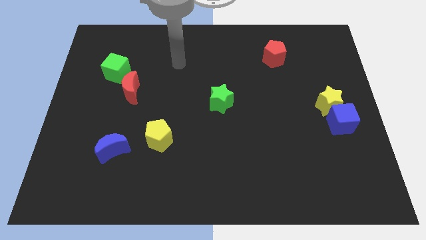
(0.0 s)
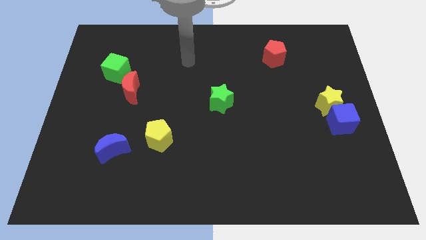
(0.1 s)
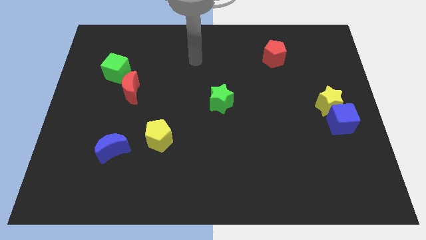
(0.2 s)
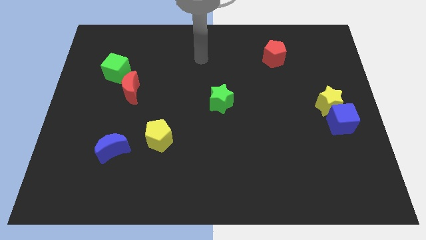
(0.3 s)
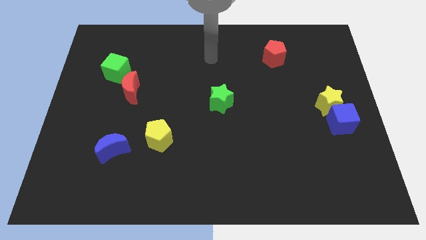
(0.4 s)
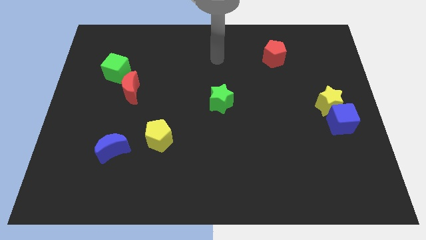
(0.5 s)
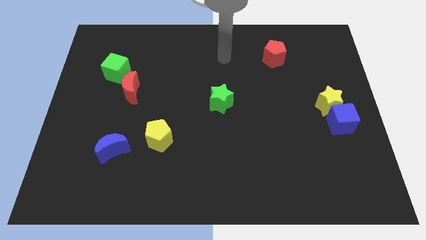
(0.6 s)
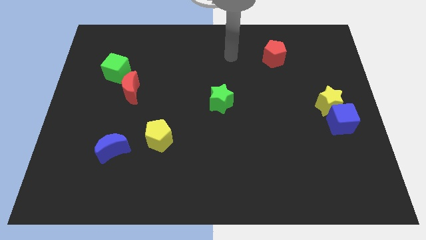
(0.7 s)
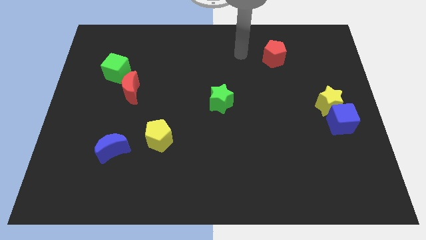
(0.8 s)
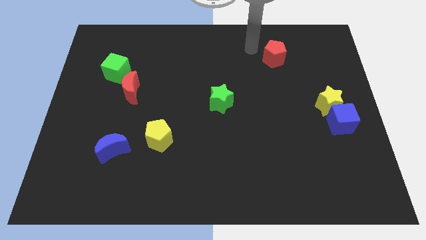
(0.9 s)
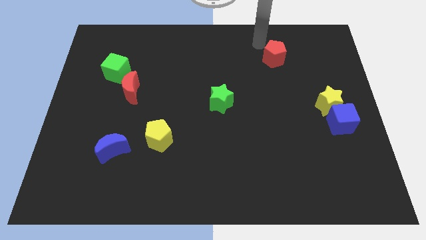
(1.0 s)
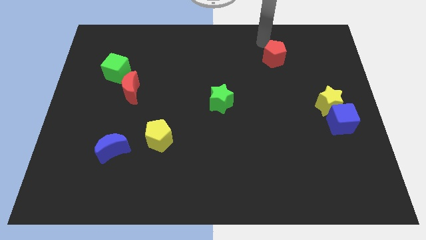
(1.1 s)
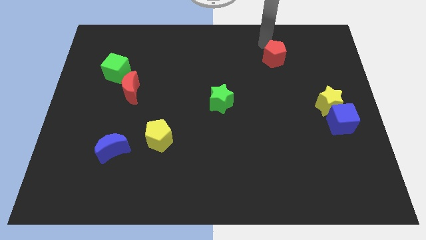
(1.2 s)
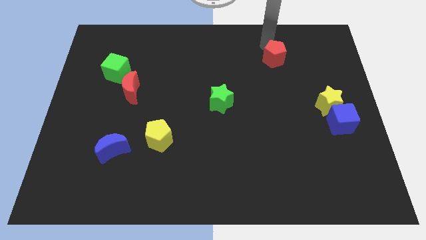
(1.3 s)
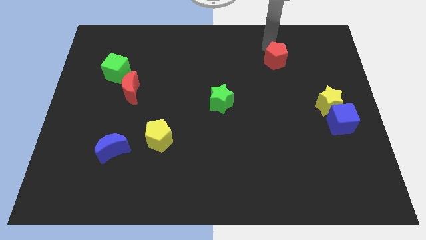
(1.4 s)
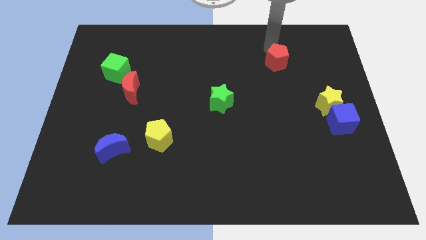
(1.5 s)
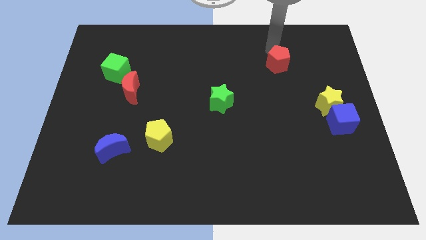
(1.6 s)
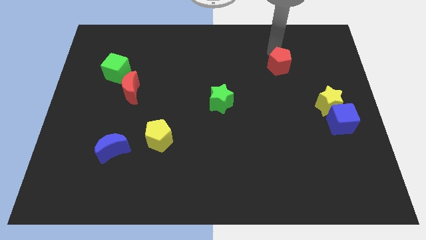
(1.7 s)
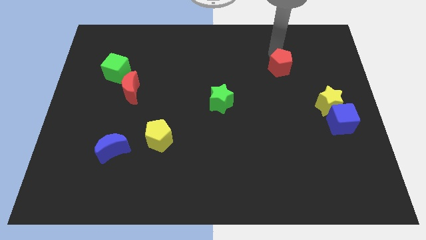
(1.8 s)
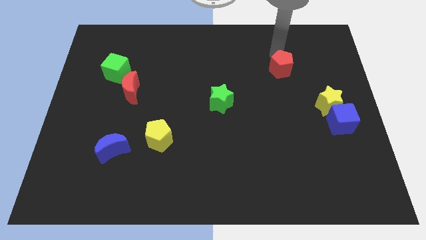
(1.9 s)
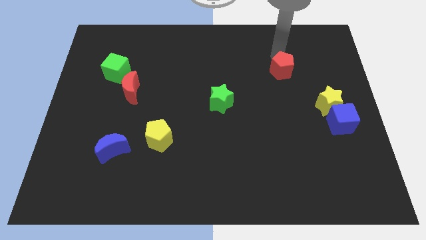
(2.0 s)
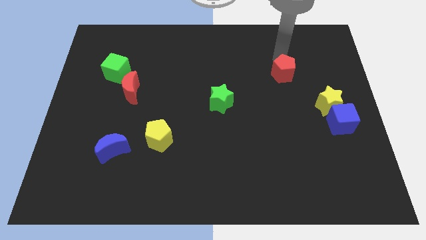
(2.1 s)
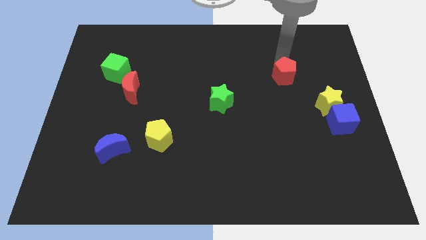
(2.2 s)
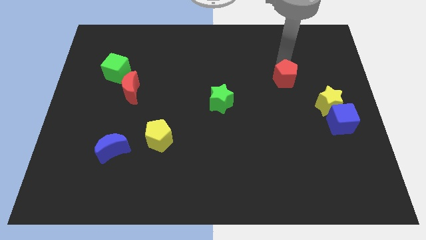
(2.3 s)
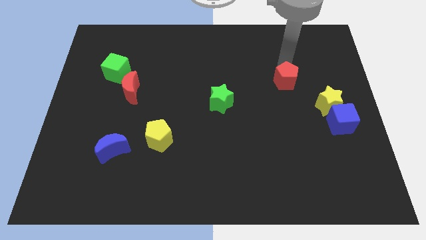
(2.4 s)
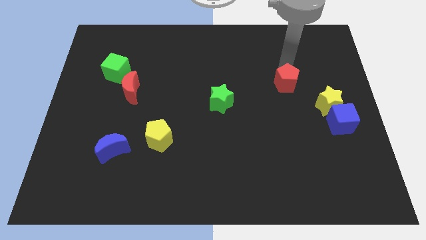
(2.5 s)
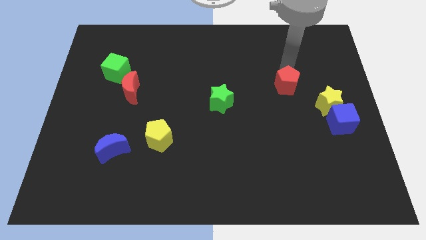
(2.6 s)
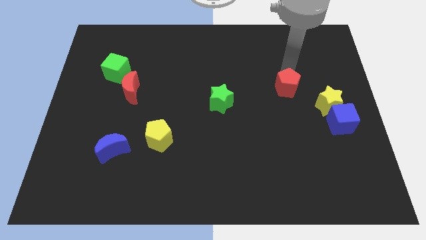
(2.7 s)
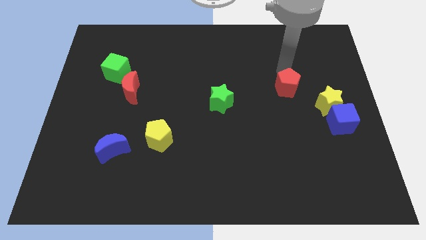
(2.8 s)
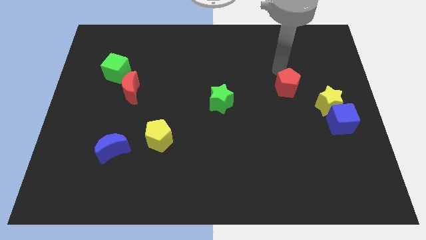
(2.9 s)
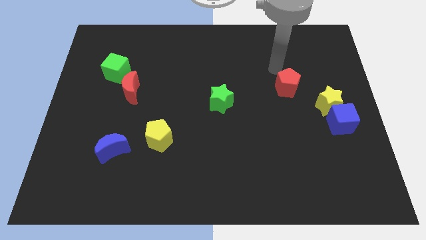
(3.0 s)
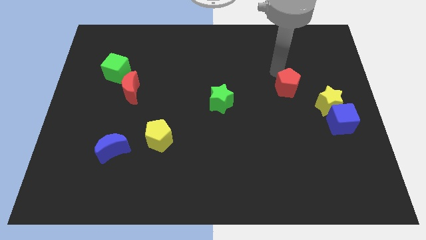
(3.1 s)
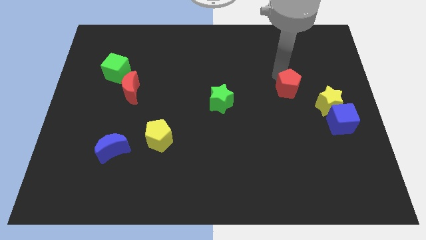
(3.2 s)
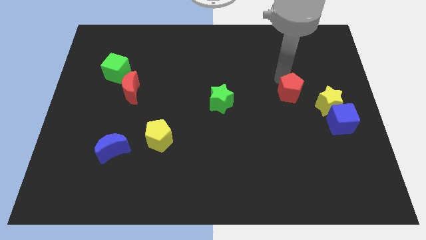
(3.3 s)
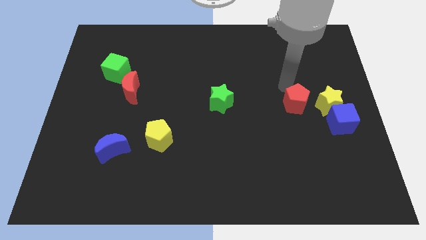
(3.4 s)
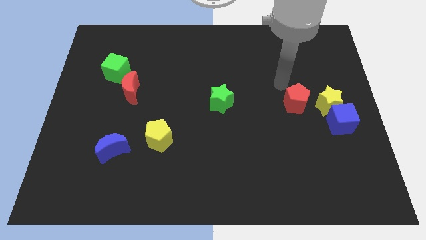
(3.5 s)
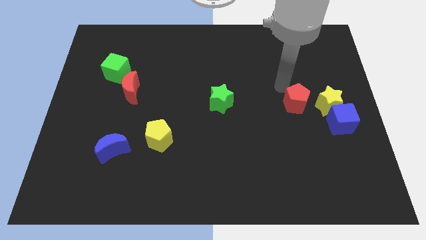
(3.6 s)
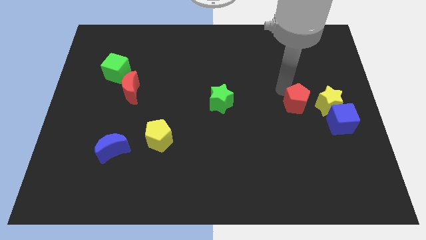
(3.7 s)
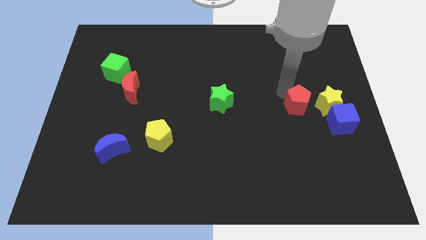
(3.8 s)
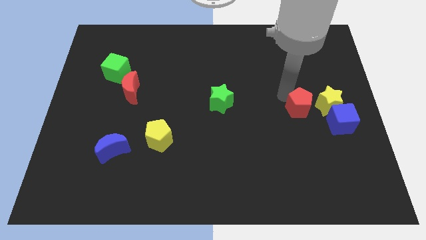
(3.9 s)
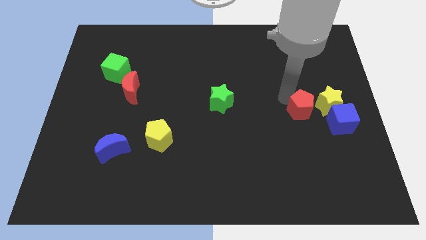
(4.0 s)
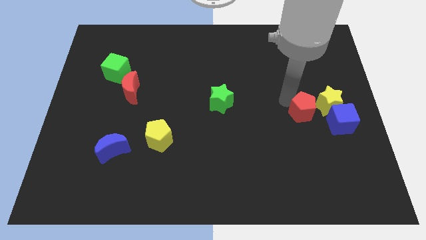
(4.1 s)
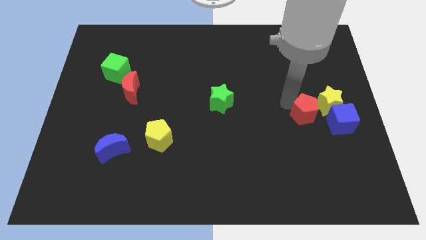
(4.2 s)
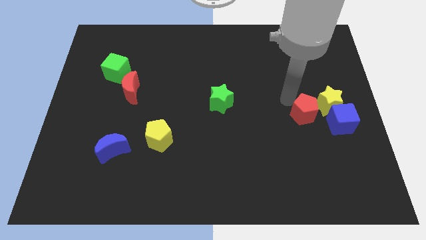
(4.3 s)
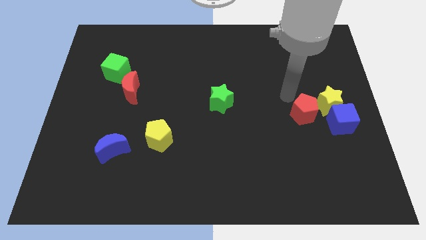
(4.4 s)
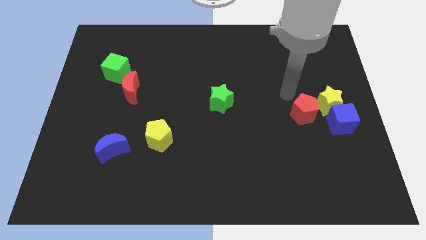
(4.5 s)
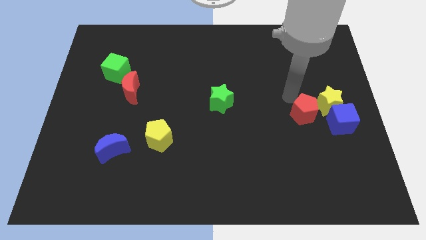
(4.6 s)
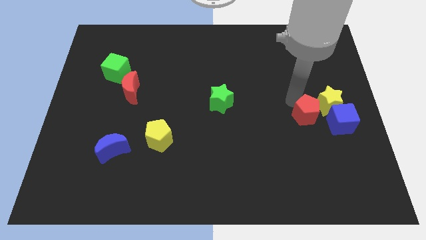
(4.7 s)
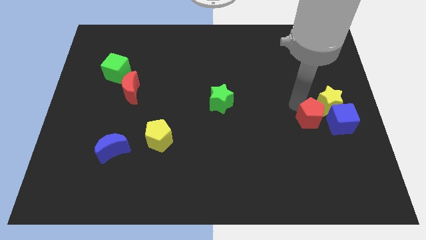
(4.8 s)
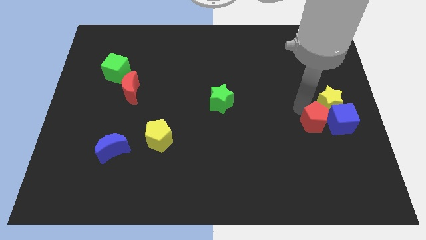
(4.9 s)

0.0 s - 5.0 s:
put the red pentagon to the bottom left of the blue cube
